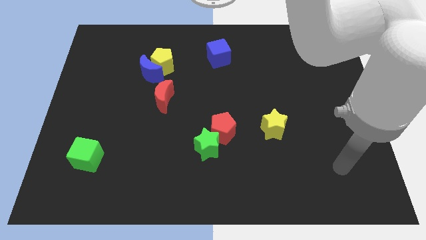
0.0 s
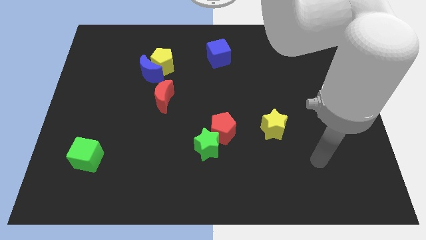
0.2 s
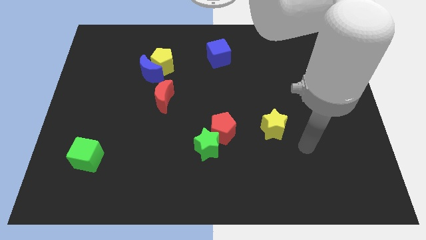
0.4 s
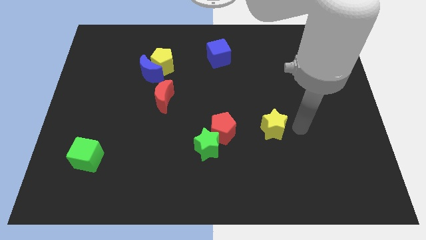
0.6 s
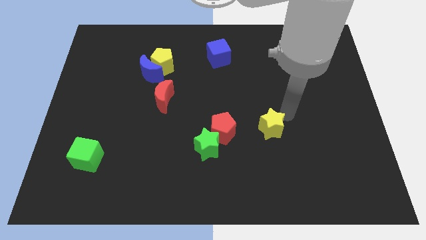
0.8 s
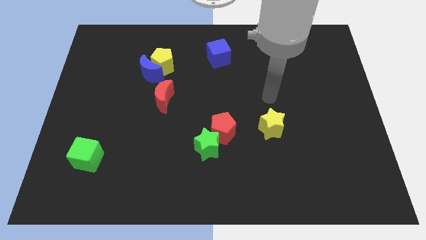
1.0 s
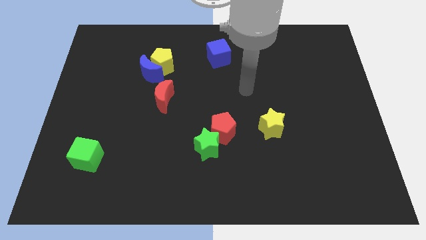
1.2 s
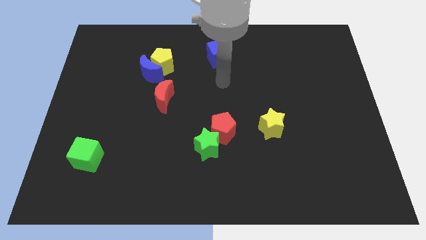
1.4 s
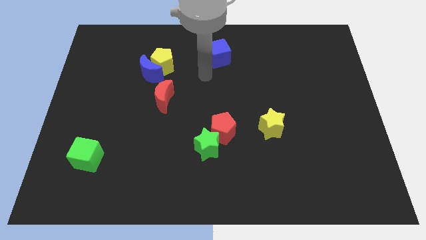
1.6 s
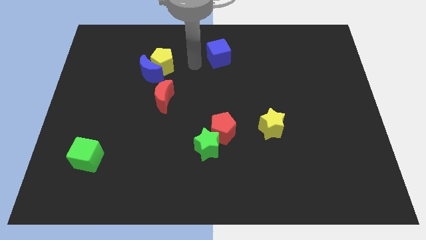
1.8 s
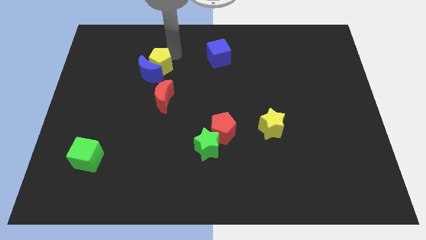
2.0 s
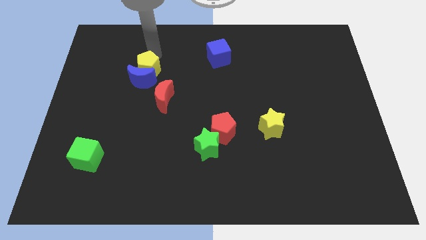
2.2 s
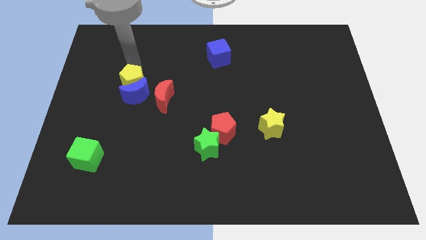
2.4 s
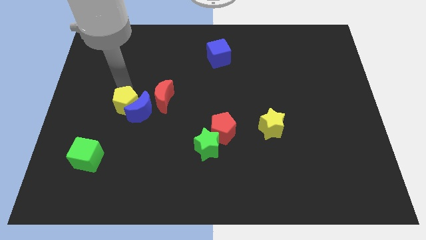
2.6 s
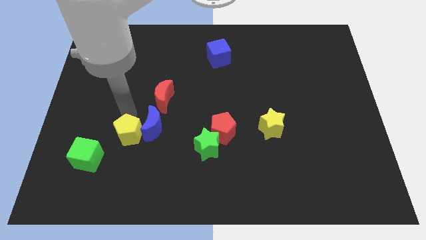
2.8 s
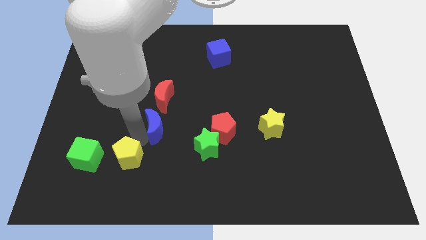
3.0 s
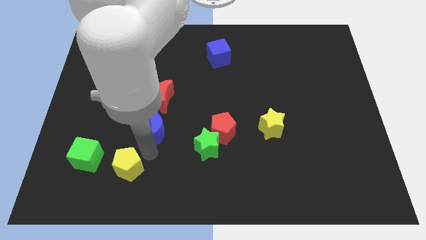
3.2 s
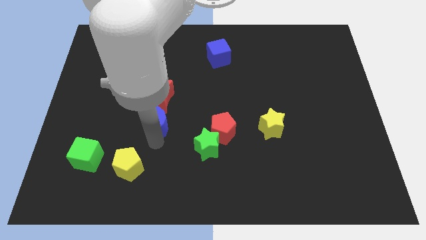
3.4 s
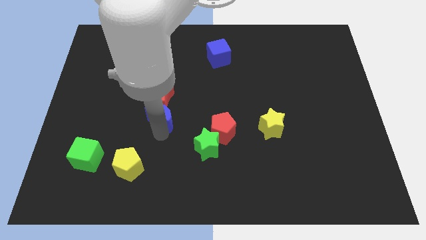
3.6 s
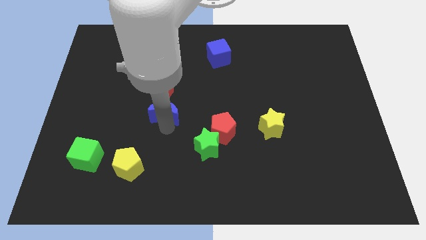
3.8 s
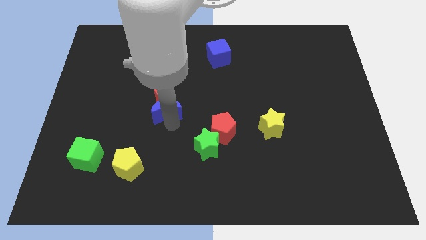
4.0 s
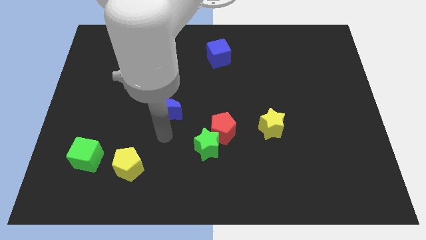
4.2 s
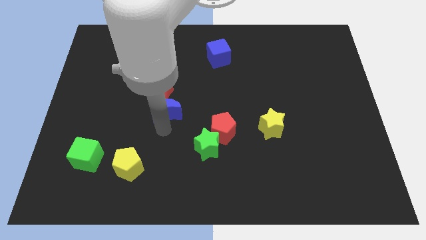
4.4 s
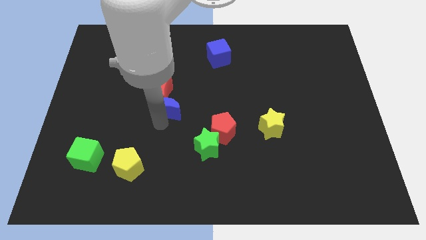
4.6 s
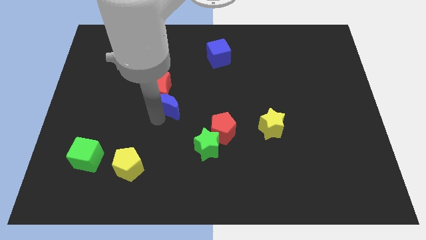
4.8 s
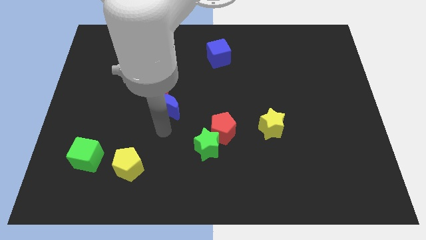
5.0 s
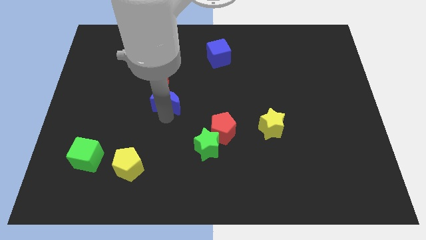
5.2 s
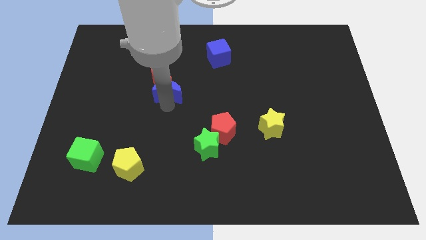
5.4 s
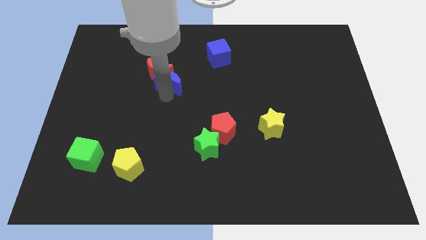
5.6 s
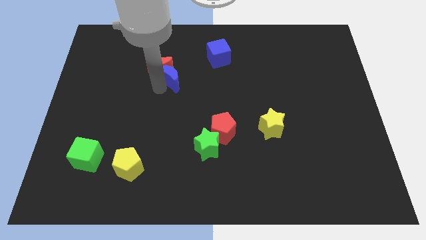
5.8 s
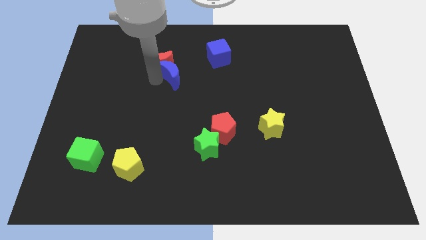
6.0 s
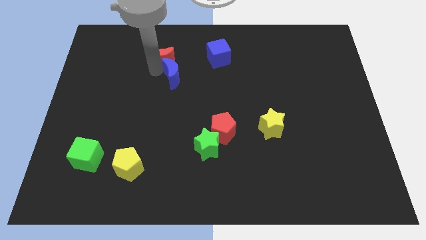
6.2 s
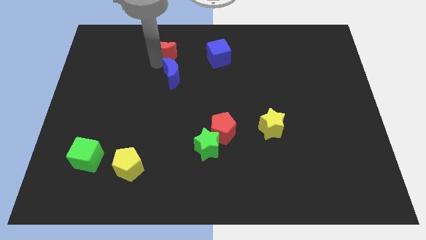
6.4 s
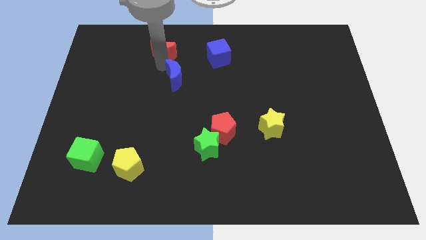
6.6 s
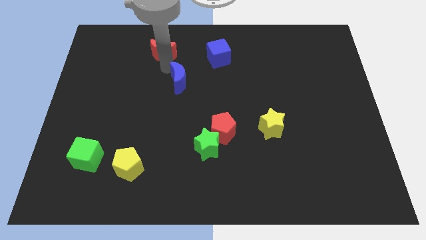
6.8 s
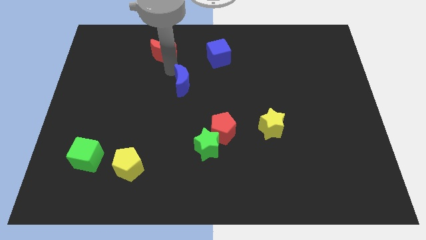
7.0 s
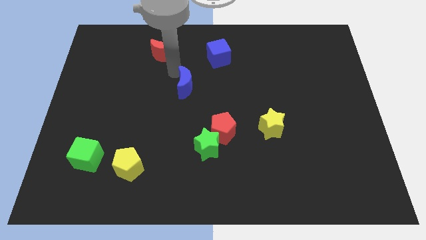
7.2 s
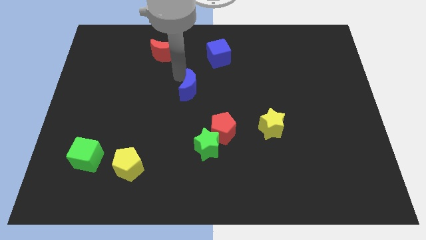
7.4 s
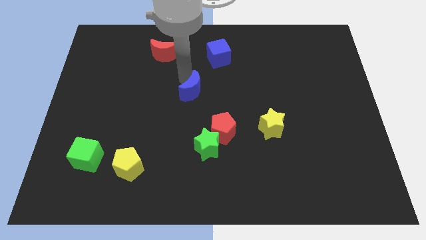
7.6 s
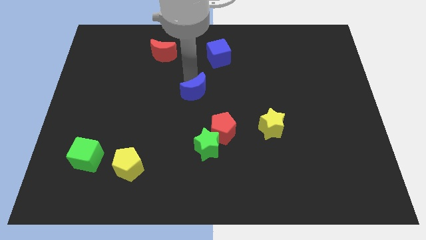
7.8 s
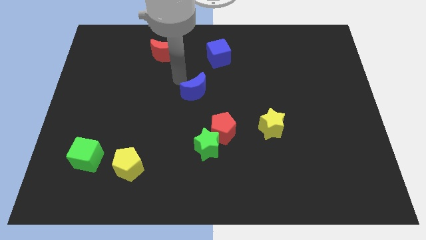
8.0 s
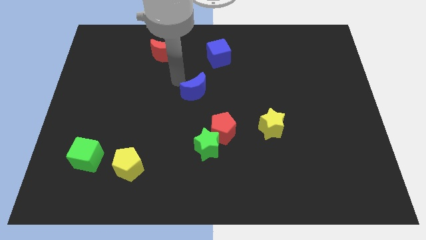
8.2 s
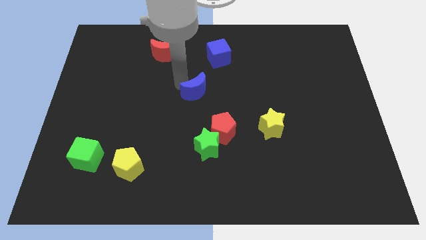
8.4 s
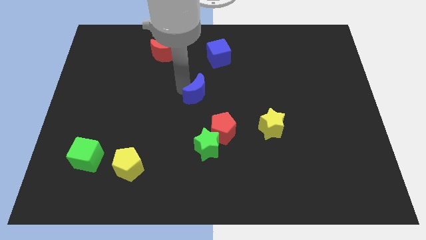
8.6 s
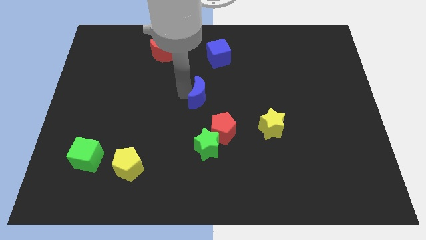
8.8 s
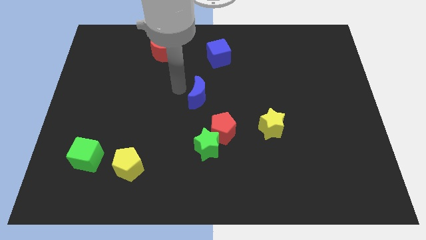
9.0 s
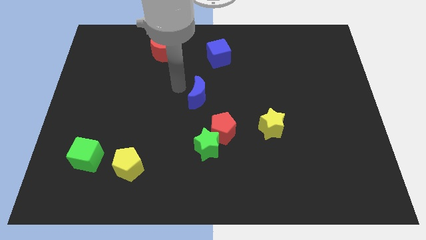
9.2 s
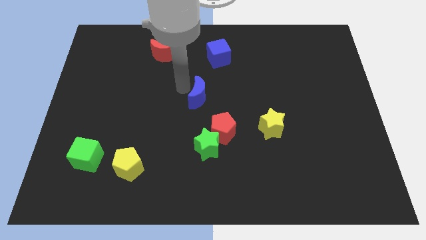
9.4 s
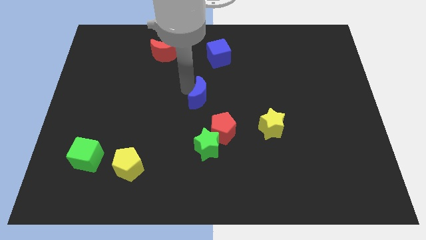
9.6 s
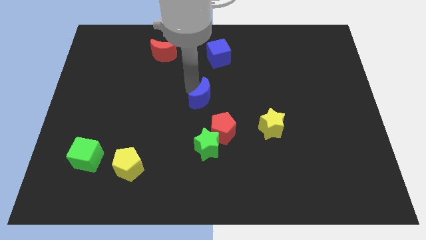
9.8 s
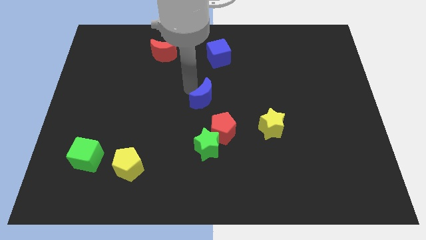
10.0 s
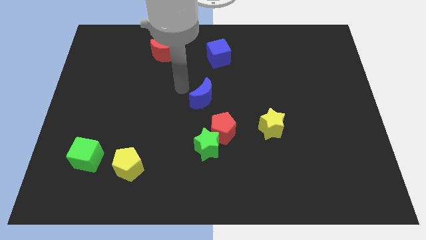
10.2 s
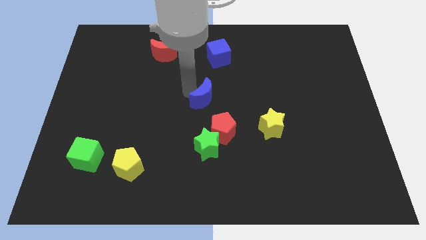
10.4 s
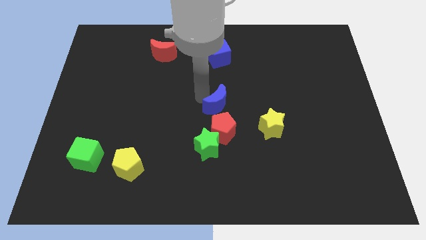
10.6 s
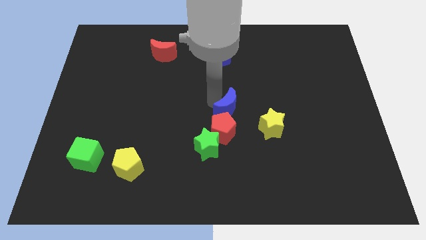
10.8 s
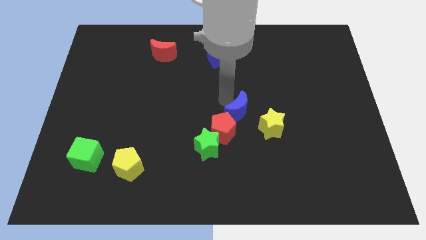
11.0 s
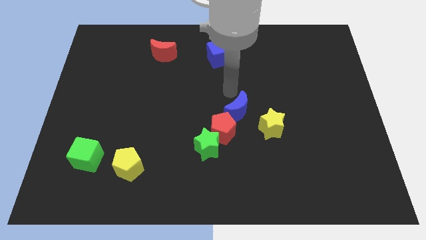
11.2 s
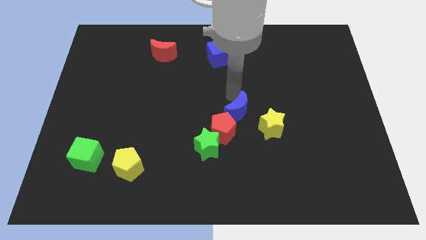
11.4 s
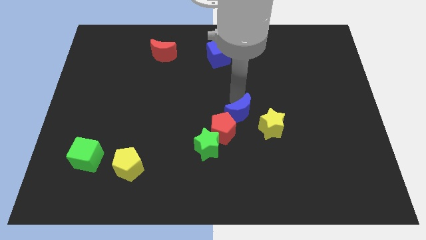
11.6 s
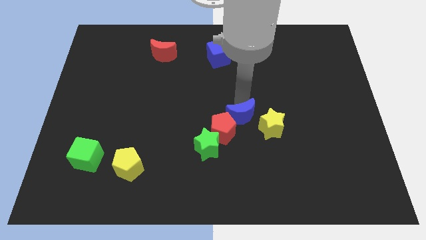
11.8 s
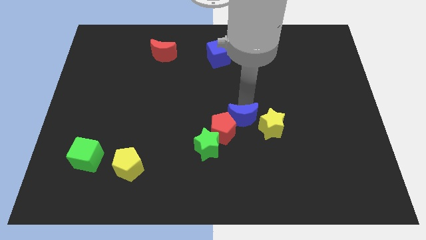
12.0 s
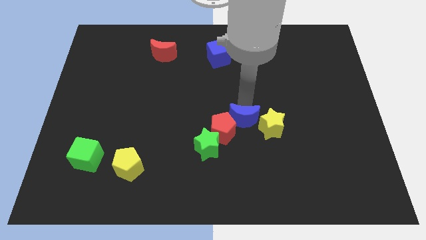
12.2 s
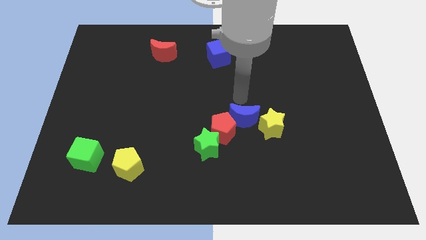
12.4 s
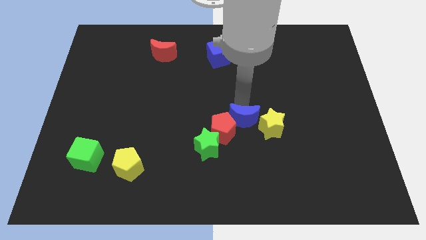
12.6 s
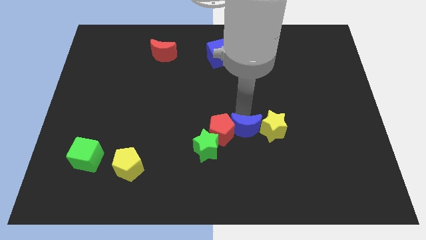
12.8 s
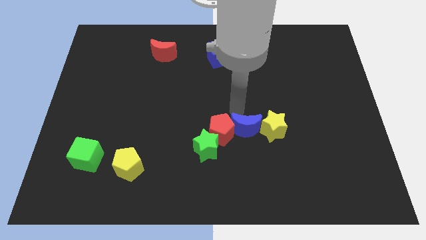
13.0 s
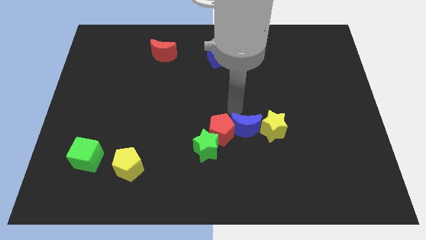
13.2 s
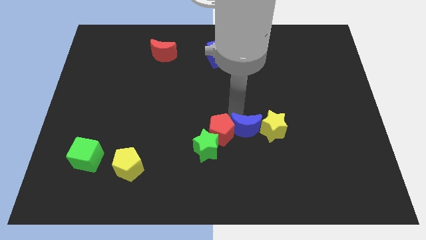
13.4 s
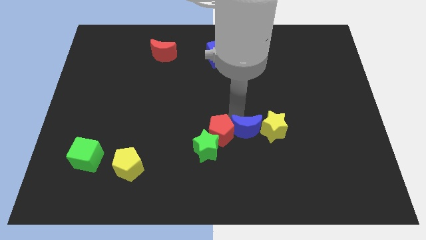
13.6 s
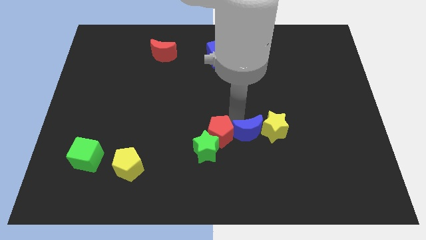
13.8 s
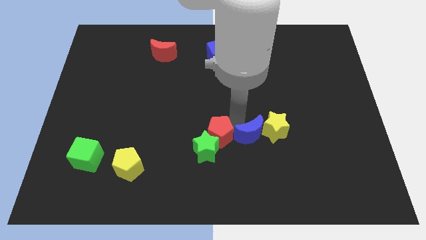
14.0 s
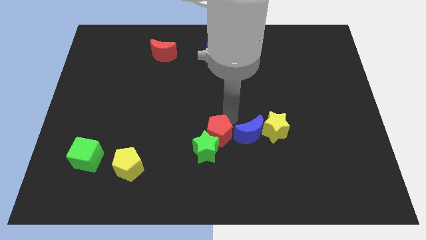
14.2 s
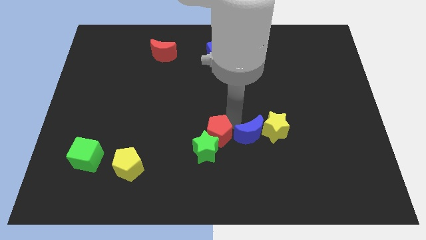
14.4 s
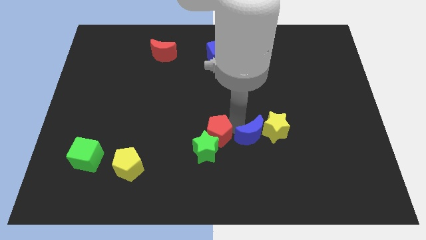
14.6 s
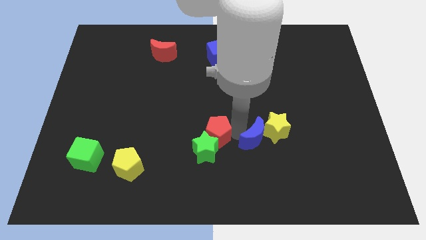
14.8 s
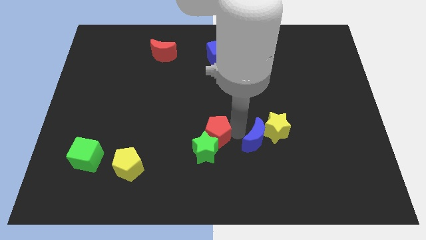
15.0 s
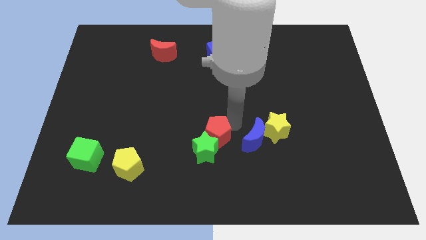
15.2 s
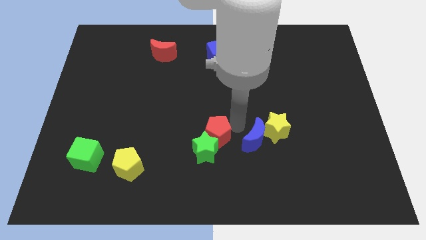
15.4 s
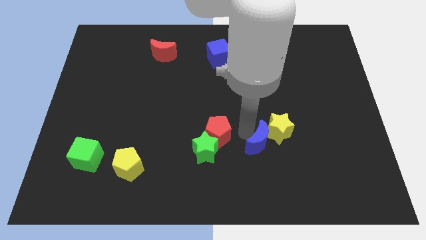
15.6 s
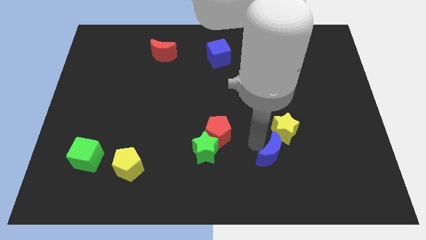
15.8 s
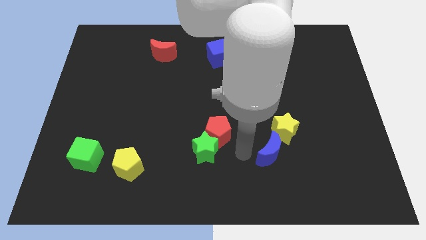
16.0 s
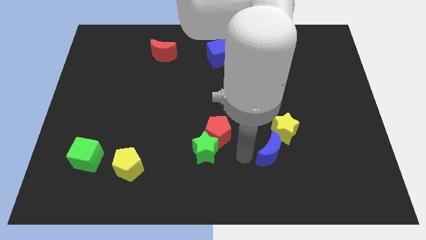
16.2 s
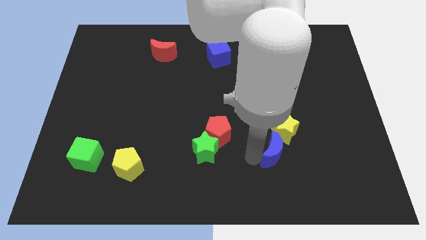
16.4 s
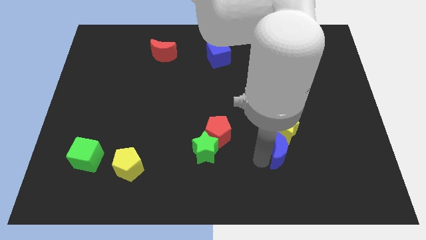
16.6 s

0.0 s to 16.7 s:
move the blue moon to the bottom right of the yellow star
